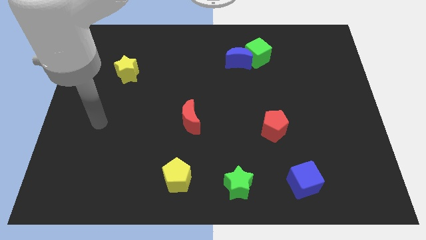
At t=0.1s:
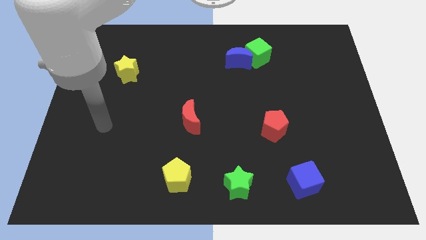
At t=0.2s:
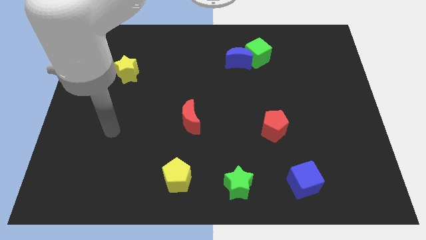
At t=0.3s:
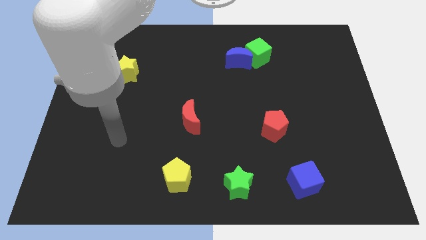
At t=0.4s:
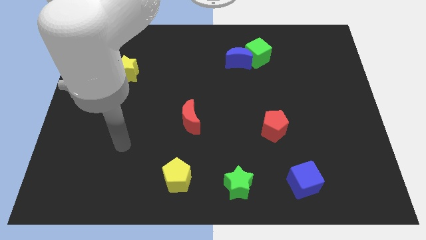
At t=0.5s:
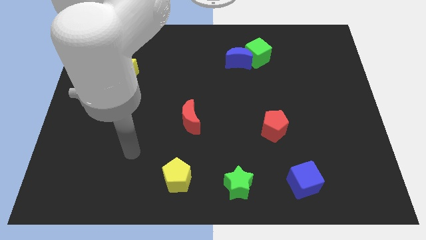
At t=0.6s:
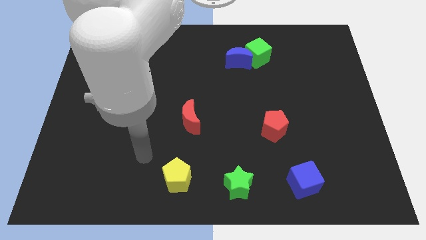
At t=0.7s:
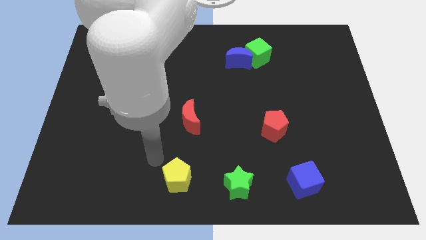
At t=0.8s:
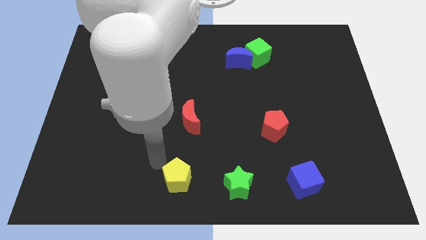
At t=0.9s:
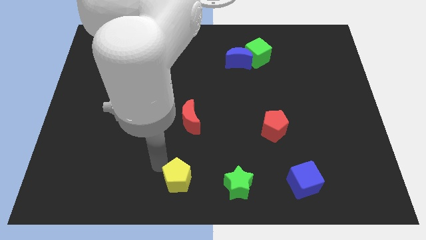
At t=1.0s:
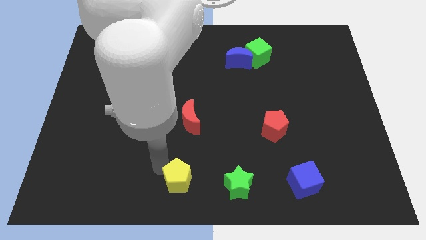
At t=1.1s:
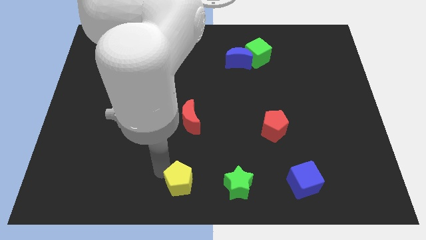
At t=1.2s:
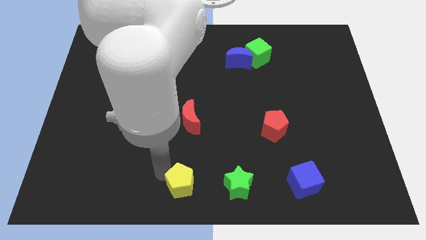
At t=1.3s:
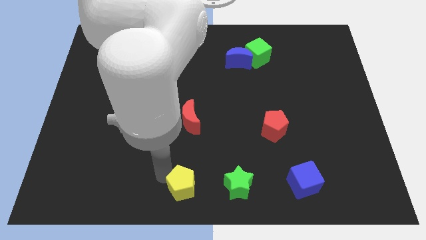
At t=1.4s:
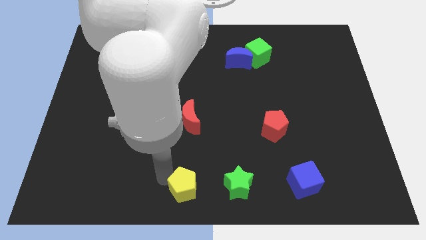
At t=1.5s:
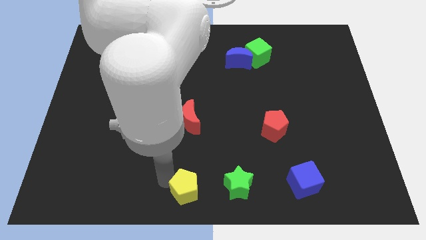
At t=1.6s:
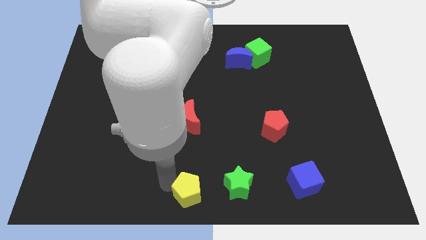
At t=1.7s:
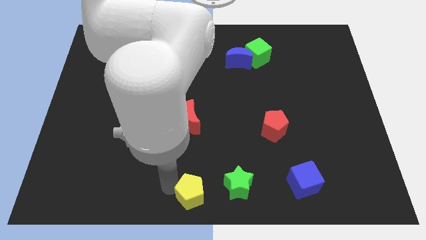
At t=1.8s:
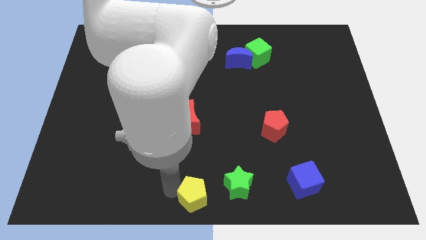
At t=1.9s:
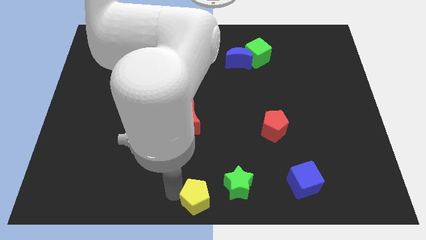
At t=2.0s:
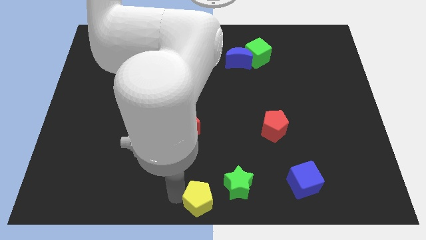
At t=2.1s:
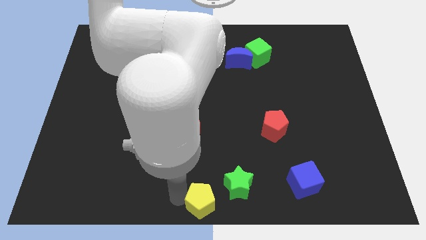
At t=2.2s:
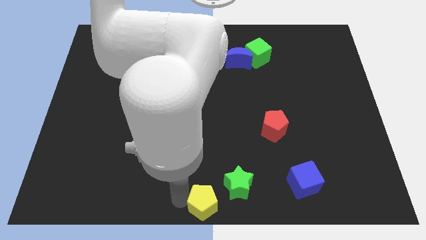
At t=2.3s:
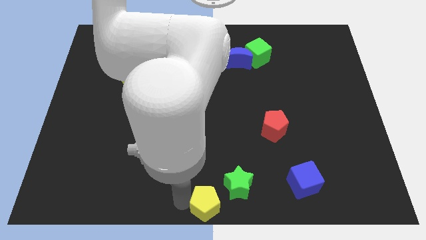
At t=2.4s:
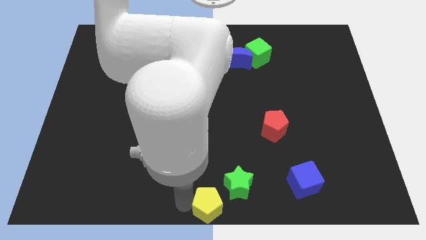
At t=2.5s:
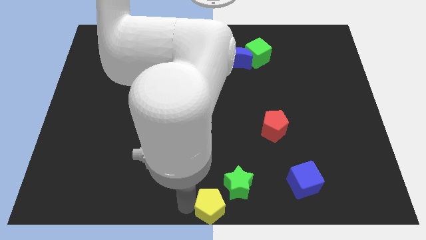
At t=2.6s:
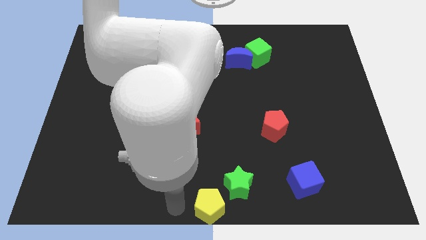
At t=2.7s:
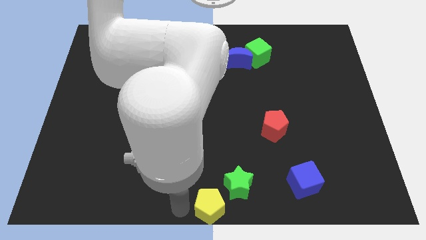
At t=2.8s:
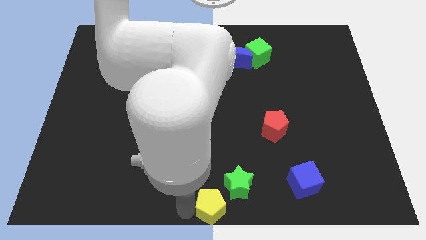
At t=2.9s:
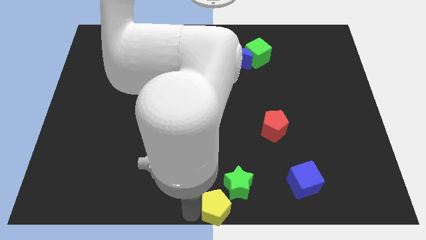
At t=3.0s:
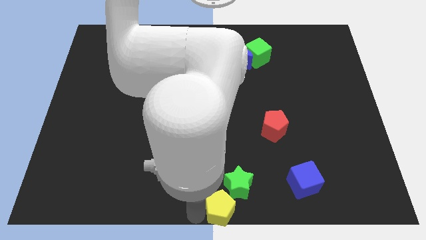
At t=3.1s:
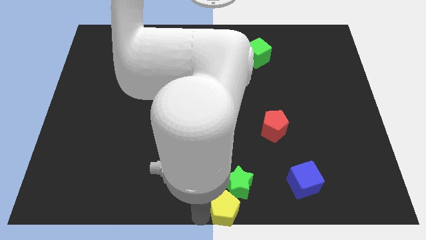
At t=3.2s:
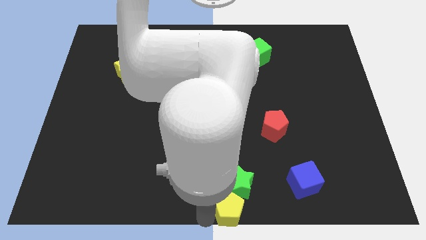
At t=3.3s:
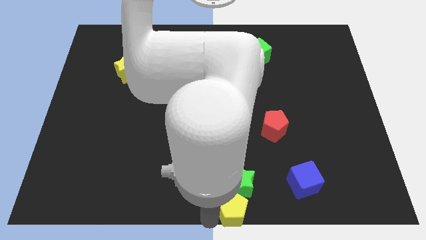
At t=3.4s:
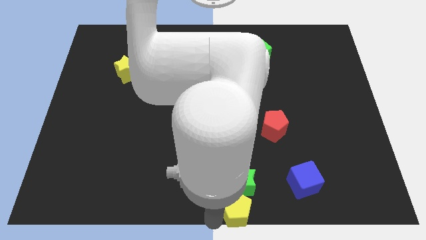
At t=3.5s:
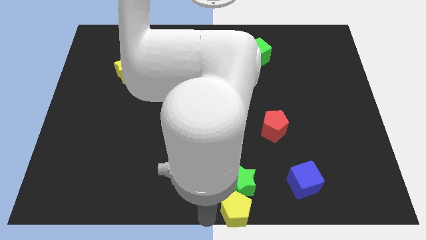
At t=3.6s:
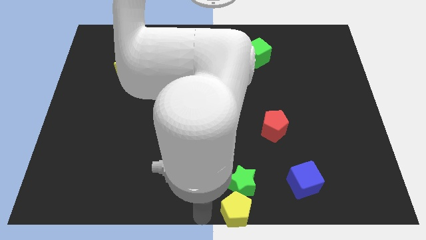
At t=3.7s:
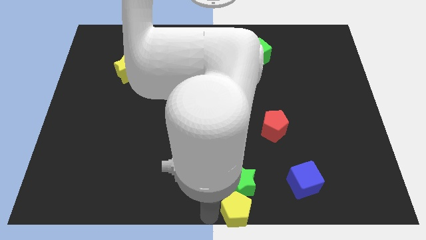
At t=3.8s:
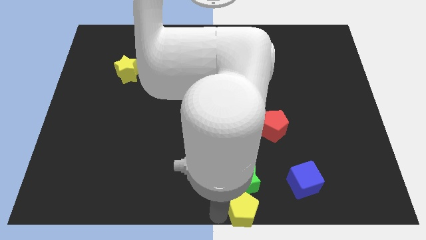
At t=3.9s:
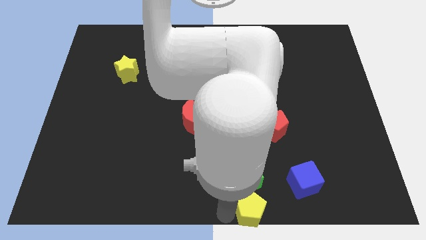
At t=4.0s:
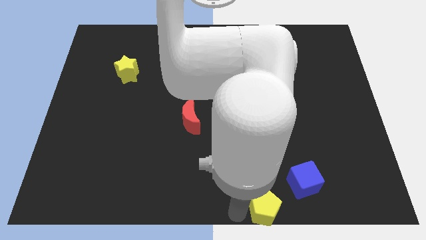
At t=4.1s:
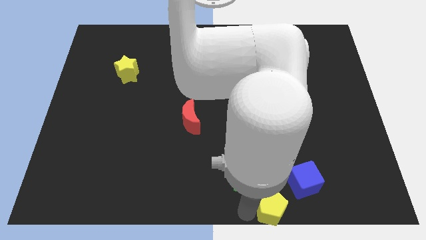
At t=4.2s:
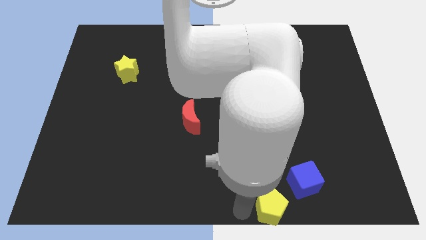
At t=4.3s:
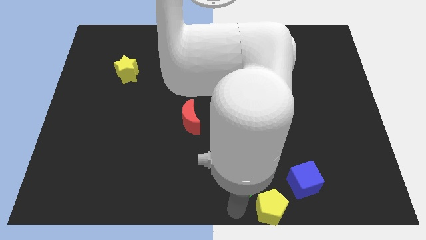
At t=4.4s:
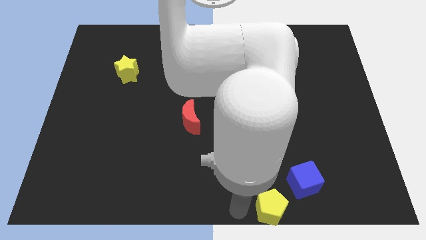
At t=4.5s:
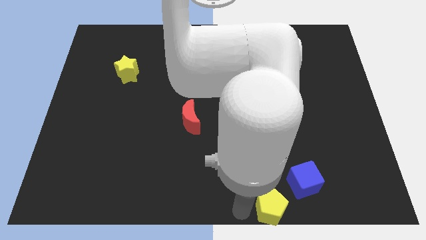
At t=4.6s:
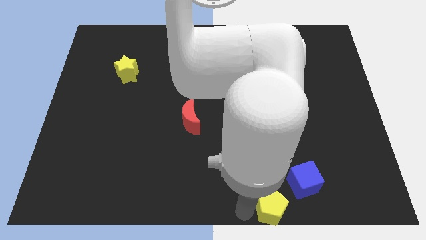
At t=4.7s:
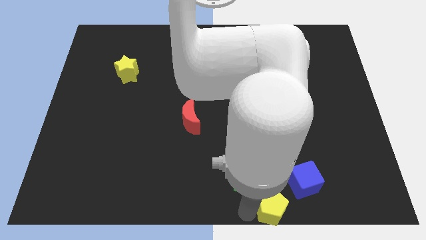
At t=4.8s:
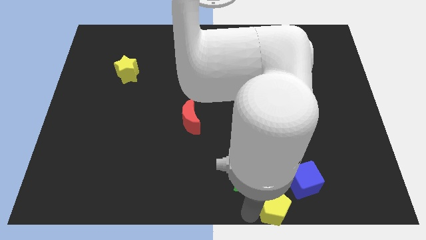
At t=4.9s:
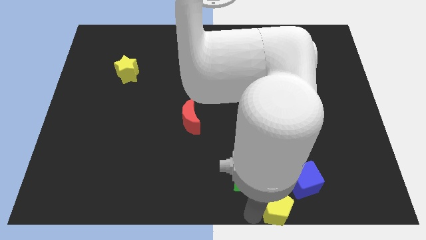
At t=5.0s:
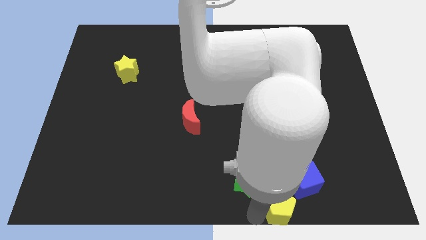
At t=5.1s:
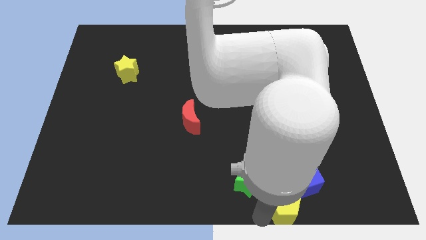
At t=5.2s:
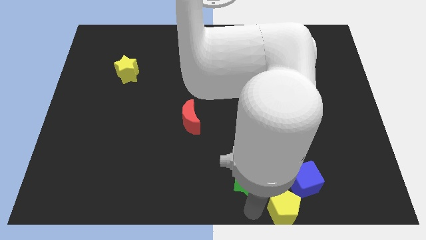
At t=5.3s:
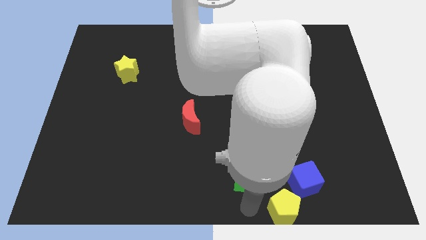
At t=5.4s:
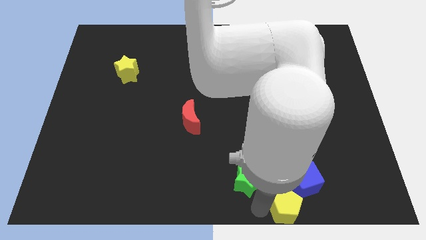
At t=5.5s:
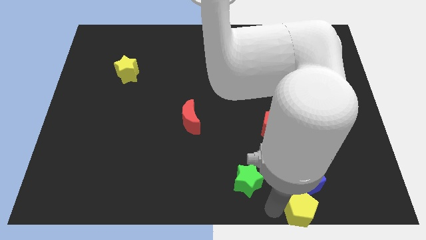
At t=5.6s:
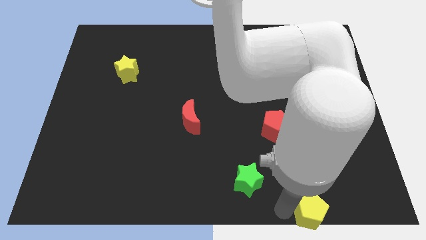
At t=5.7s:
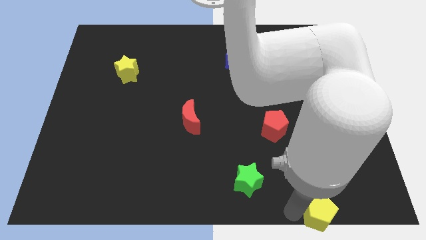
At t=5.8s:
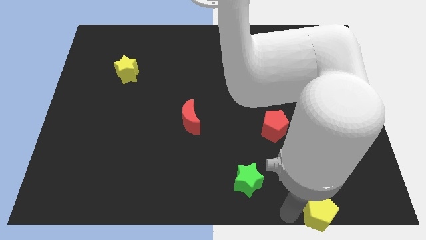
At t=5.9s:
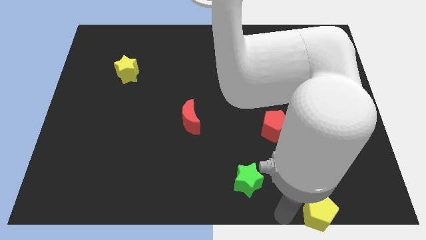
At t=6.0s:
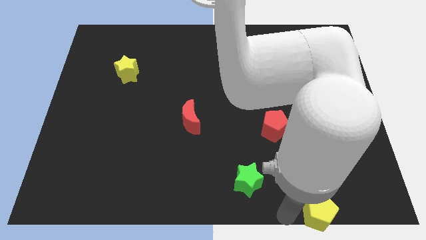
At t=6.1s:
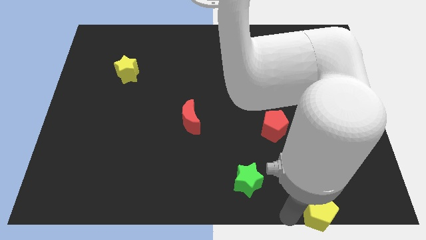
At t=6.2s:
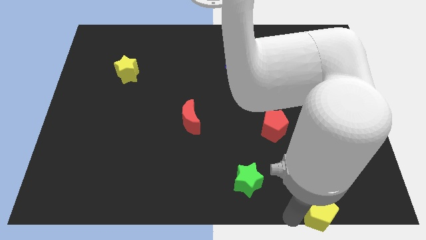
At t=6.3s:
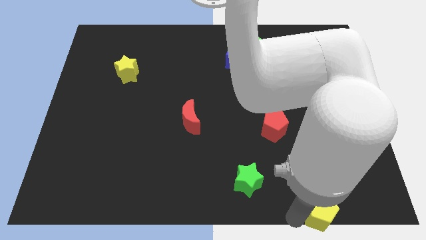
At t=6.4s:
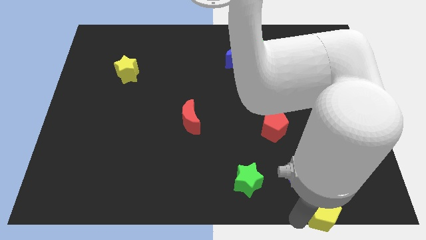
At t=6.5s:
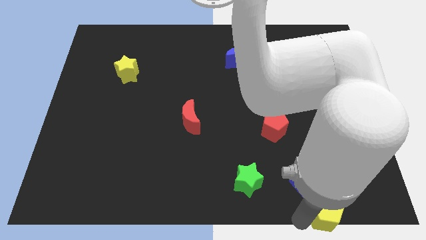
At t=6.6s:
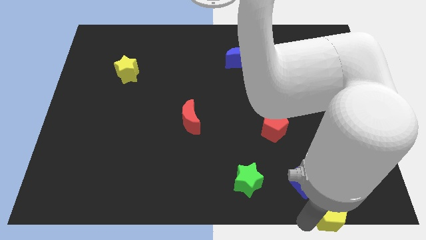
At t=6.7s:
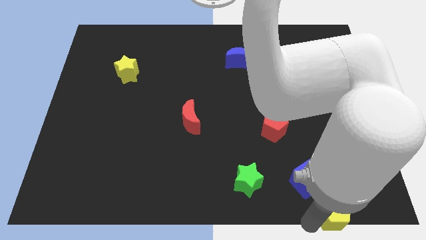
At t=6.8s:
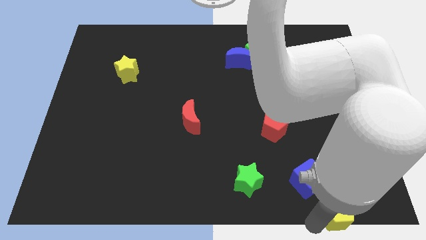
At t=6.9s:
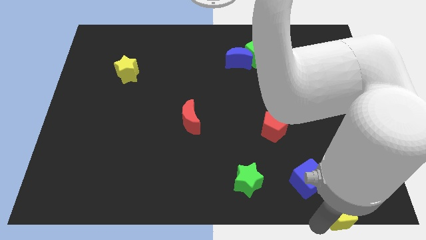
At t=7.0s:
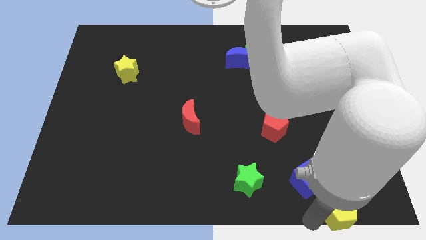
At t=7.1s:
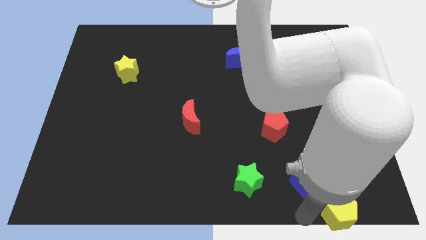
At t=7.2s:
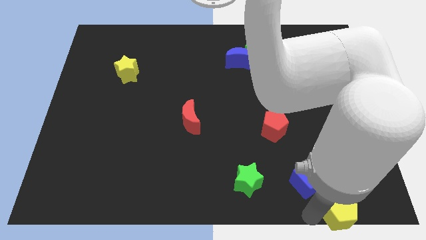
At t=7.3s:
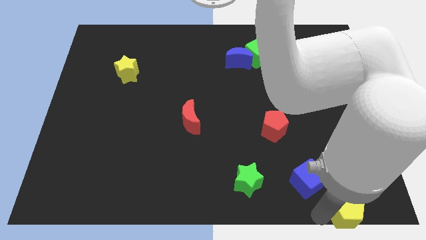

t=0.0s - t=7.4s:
push the yellow pentagon to the bottom right of the board
